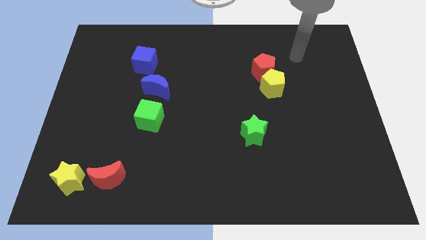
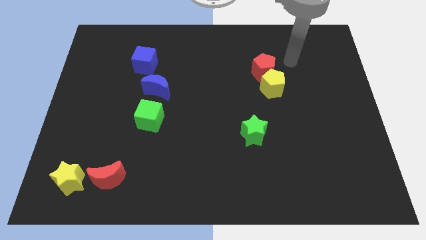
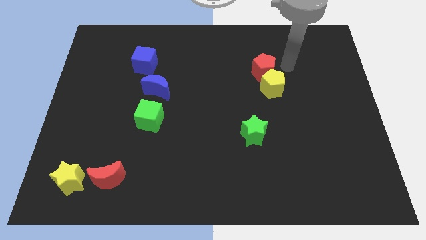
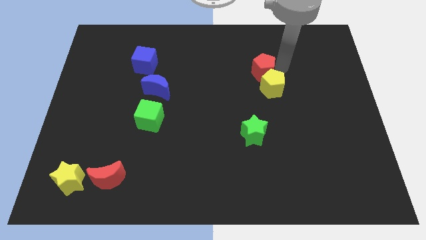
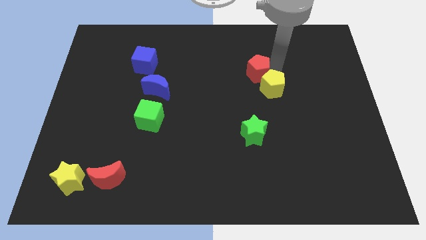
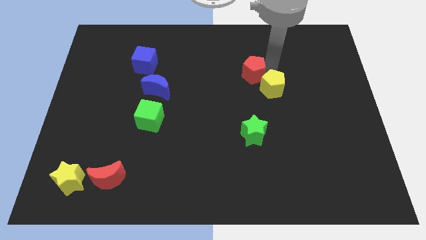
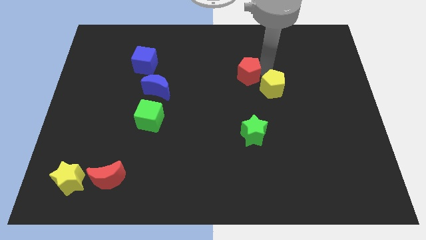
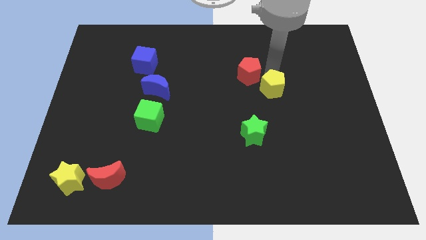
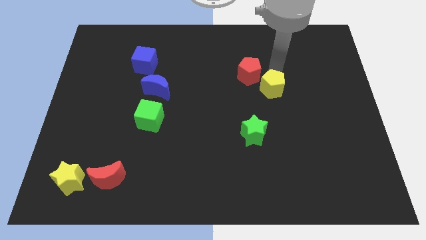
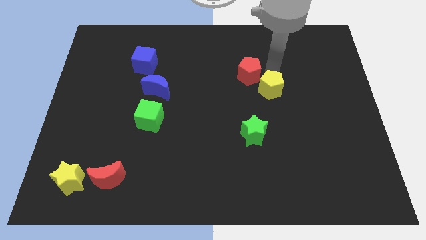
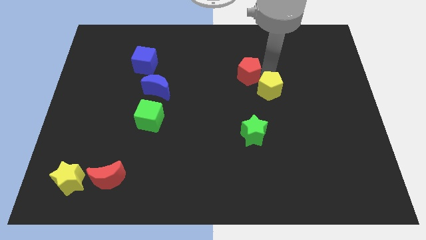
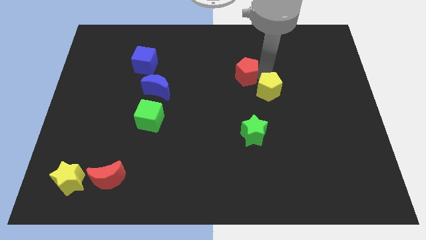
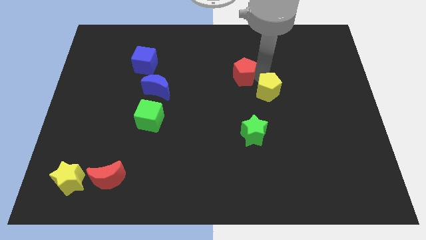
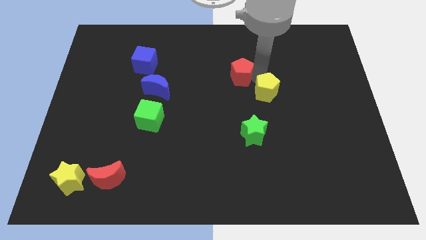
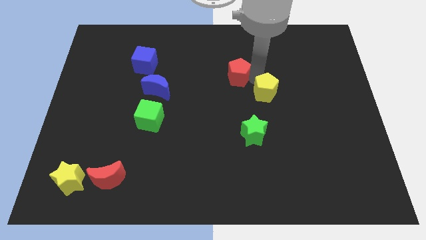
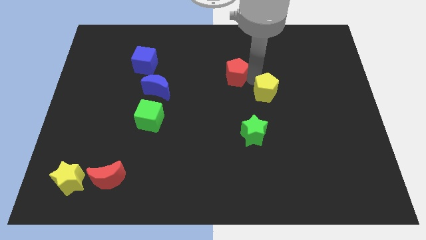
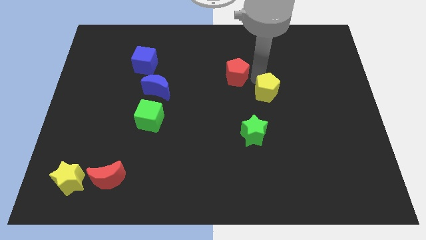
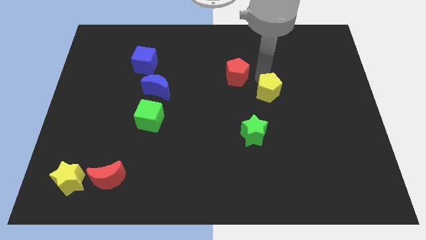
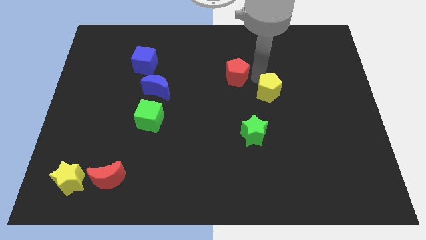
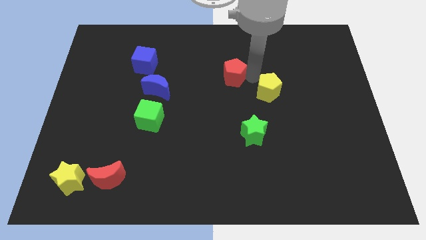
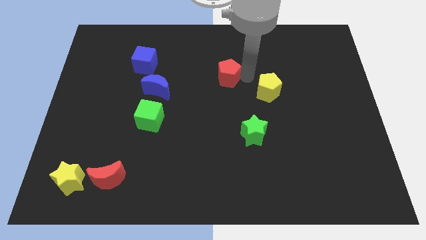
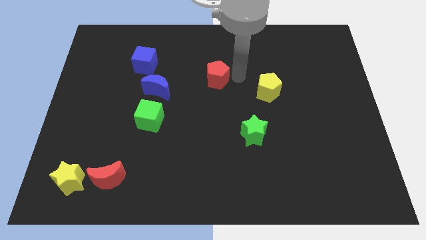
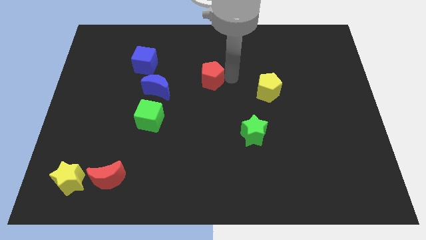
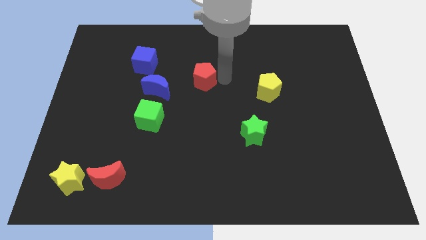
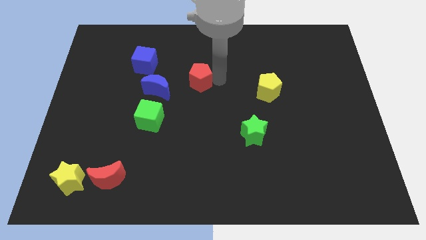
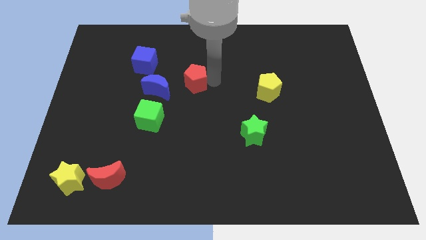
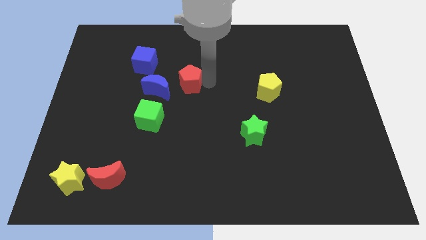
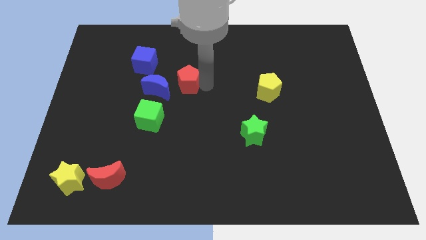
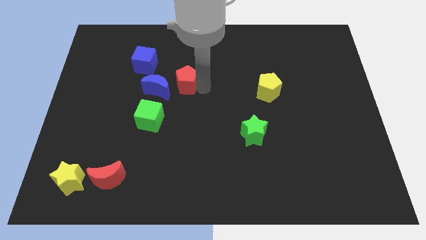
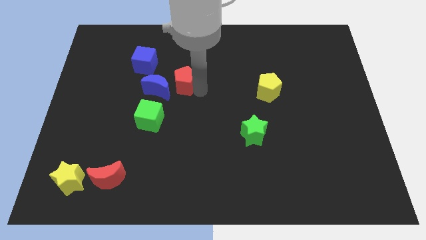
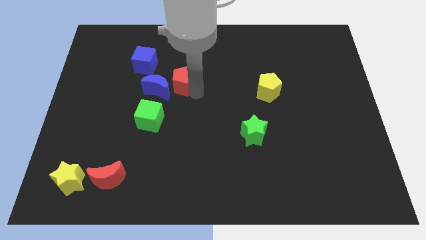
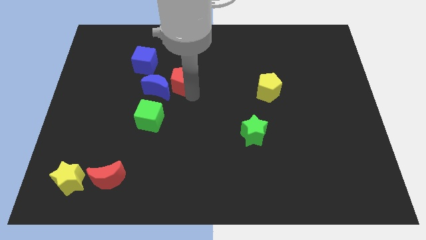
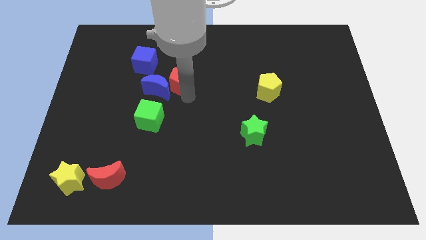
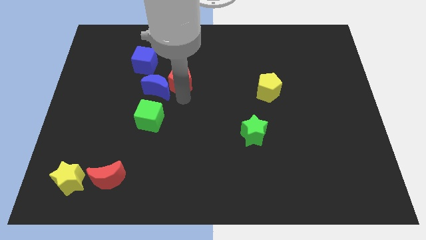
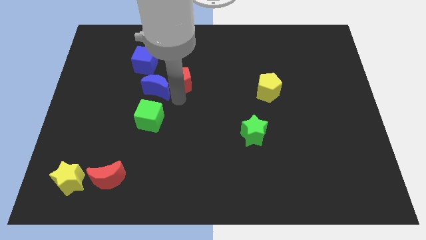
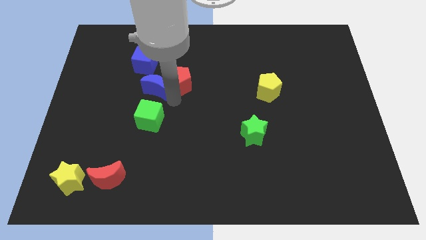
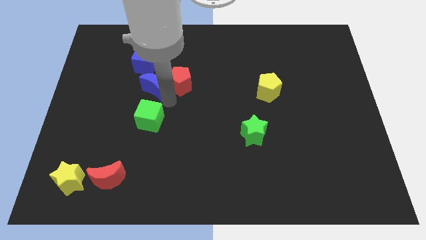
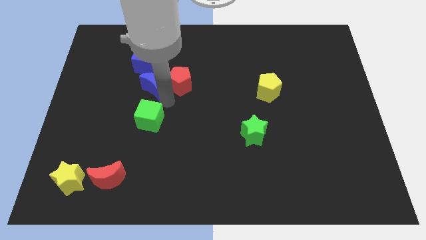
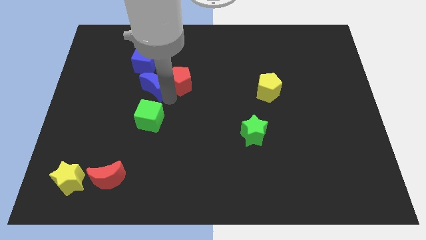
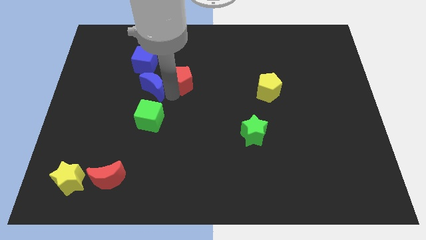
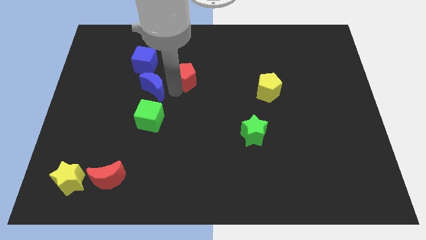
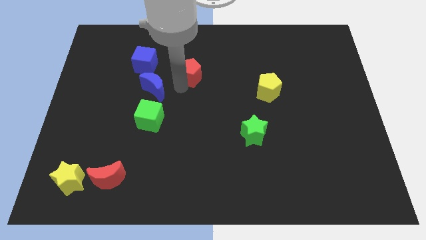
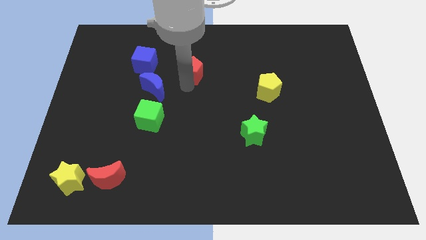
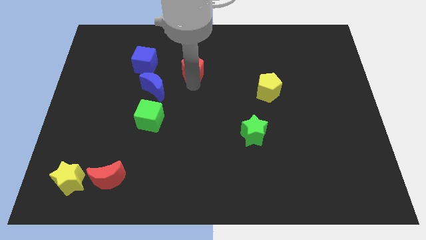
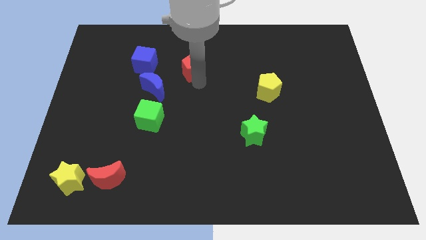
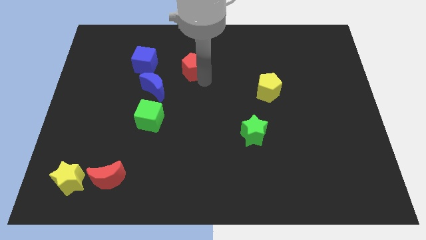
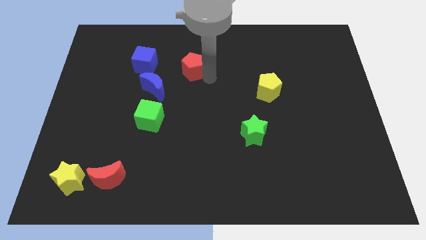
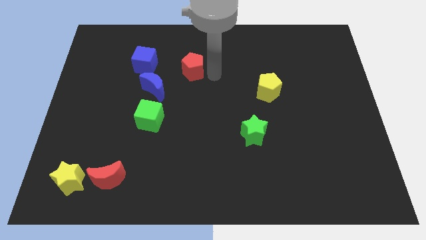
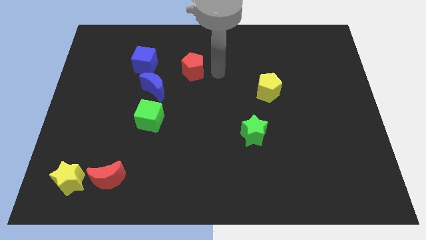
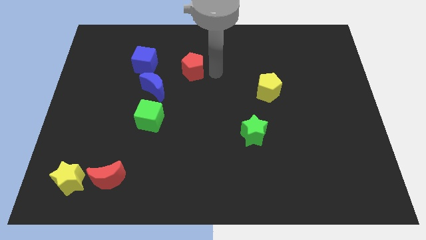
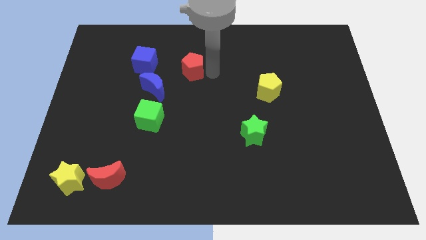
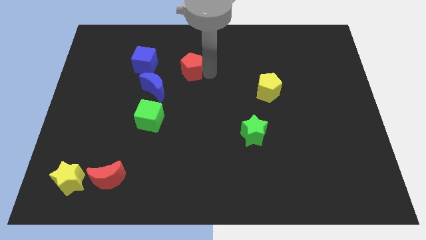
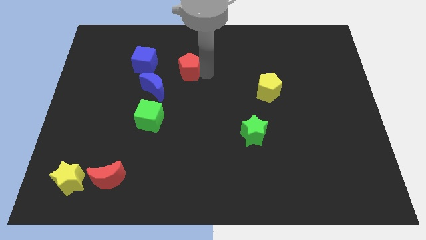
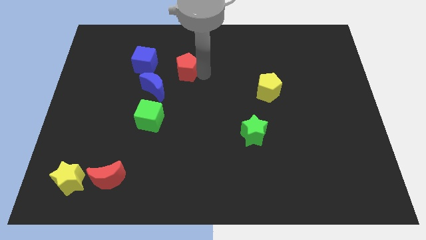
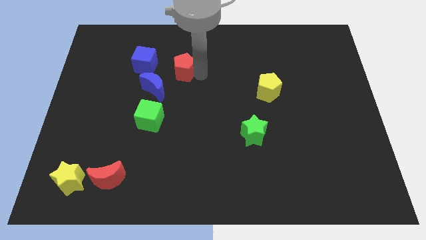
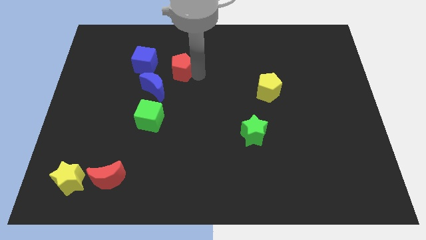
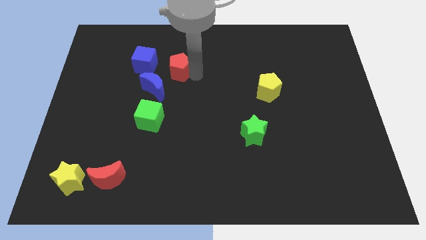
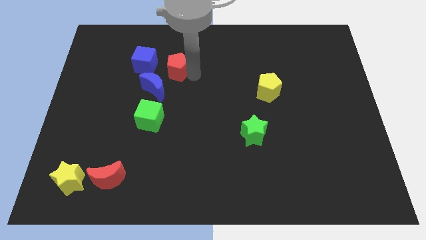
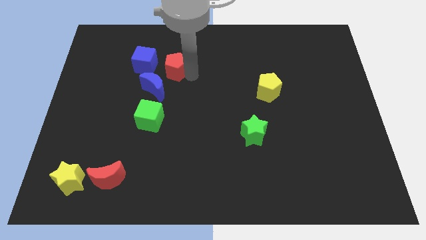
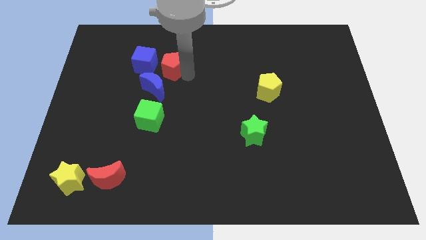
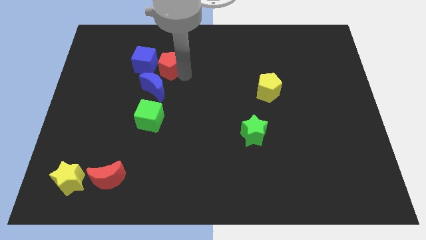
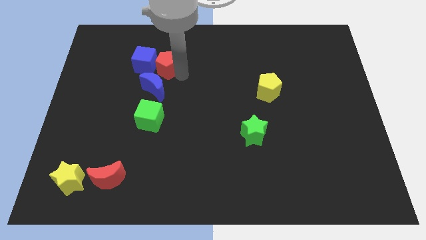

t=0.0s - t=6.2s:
push the red pentagon close to the blue cube

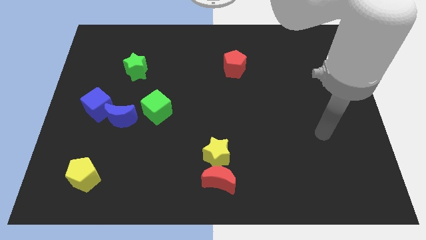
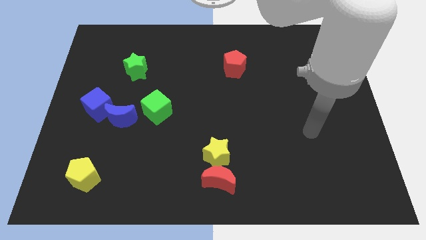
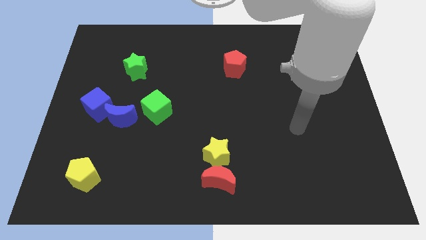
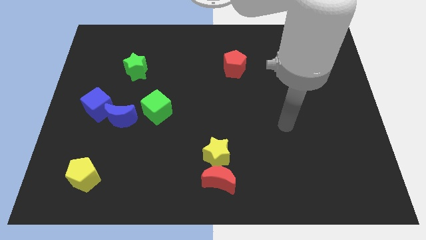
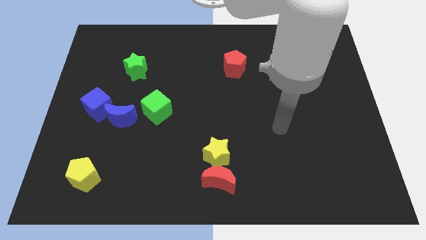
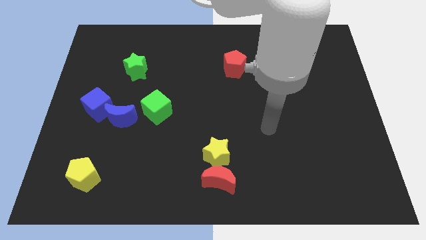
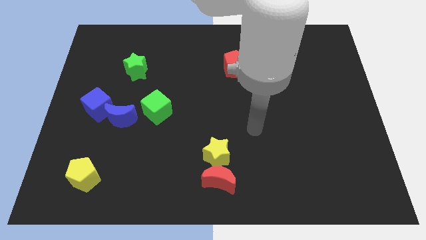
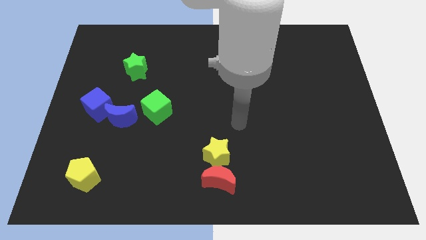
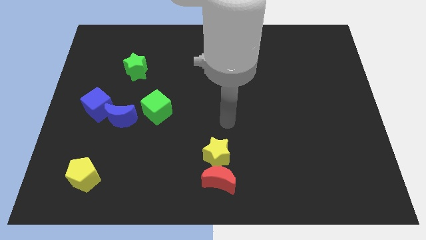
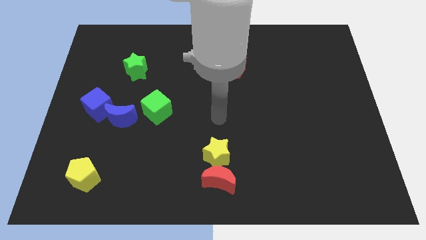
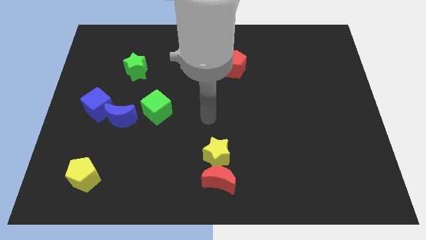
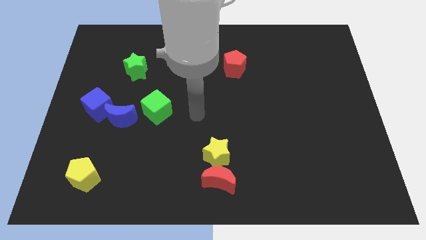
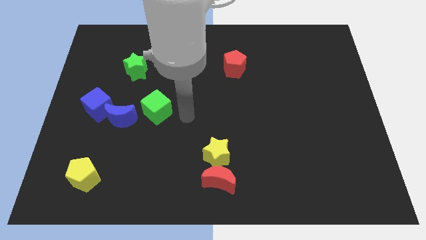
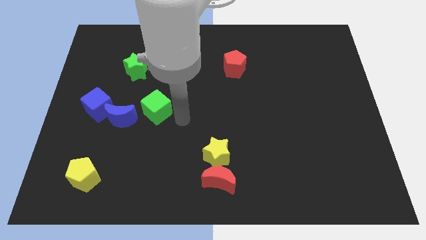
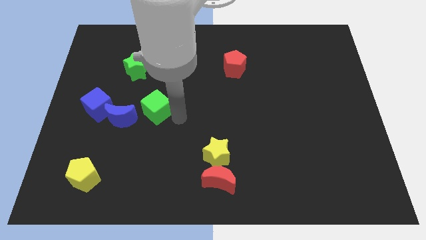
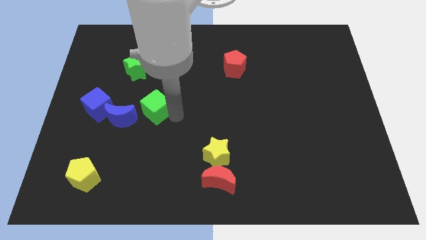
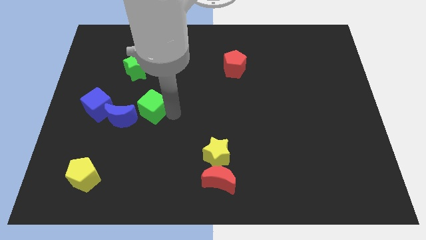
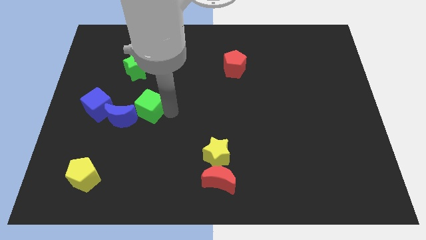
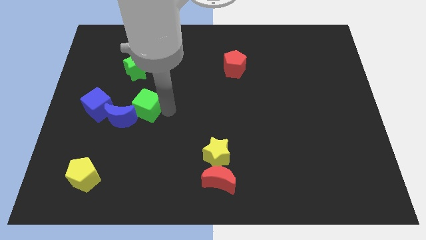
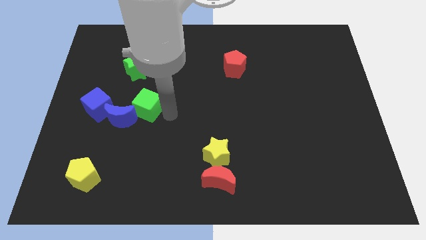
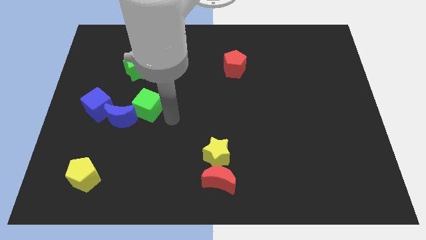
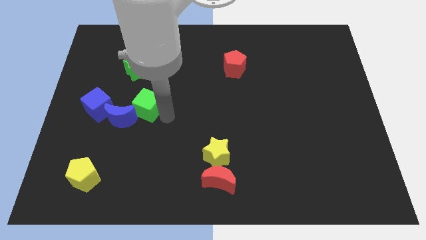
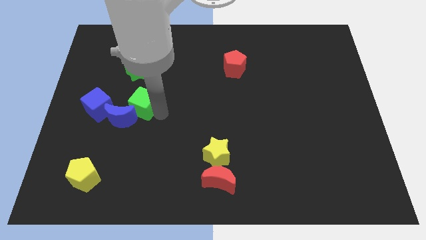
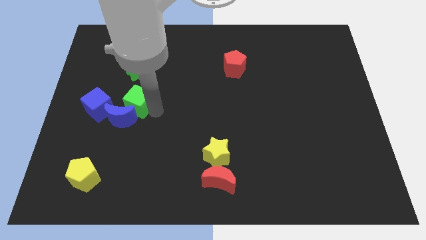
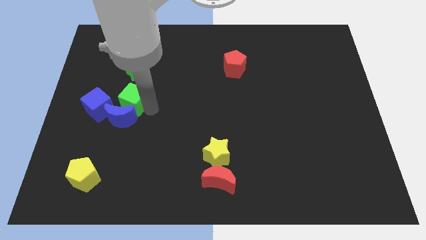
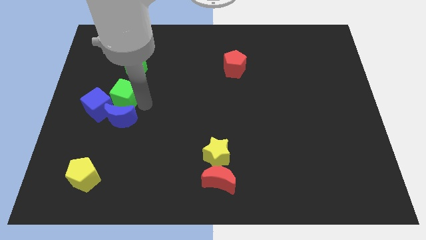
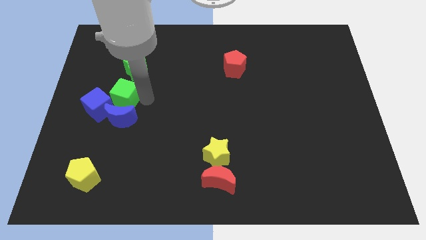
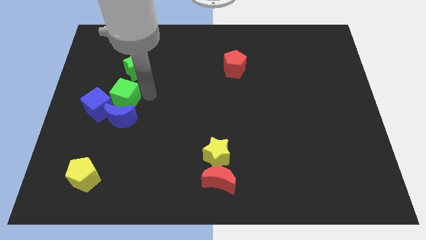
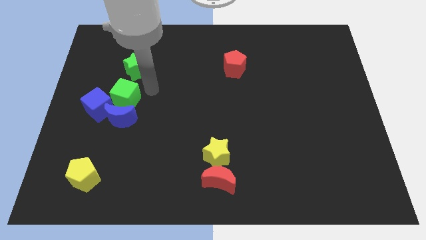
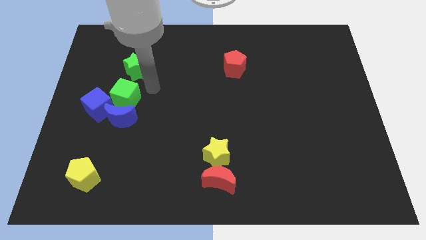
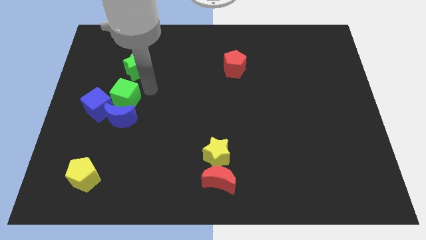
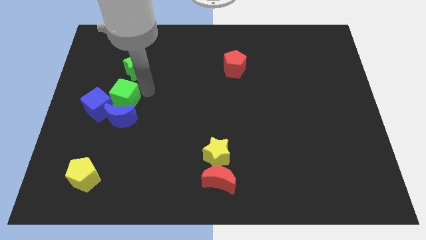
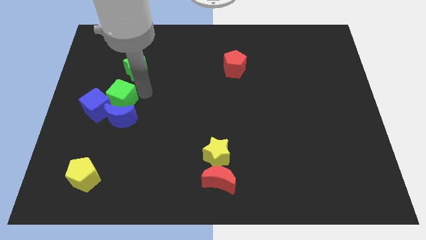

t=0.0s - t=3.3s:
move the green cube to the blue cube
